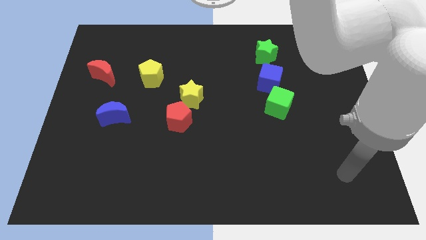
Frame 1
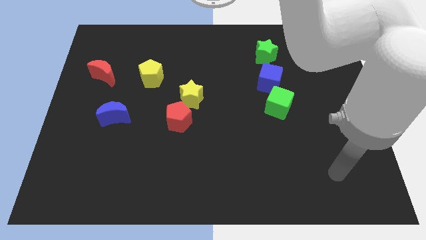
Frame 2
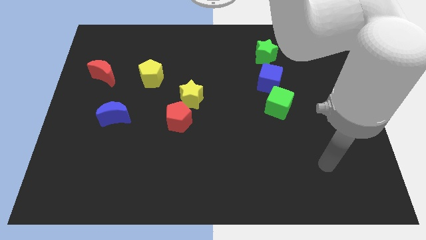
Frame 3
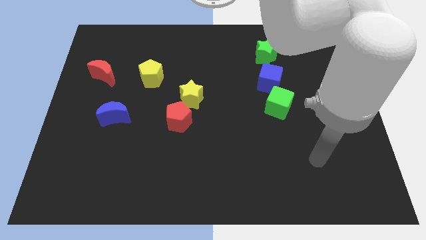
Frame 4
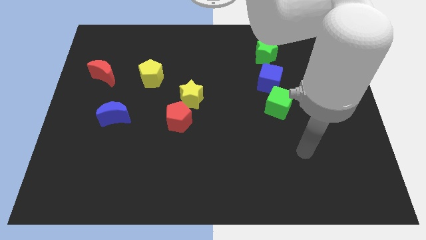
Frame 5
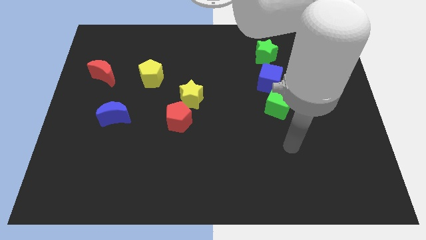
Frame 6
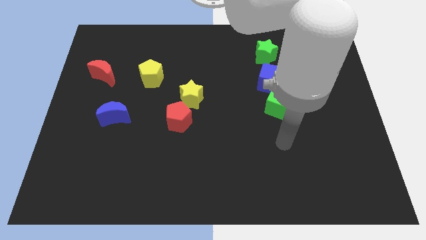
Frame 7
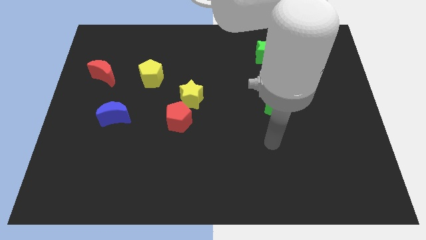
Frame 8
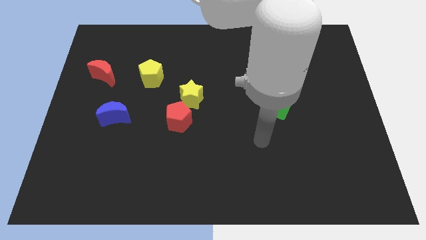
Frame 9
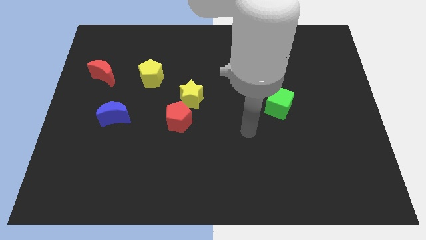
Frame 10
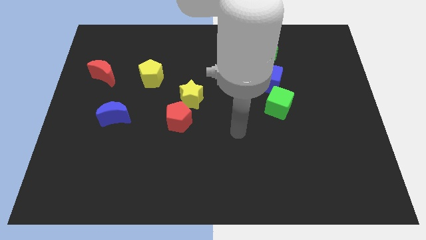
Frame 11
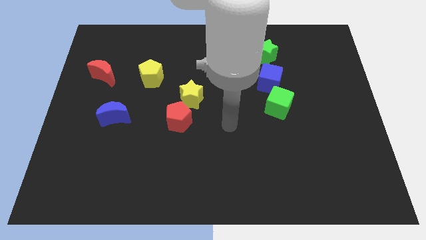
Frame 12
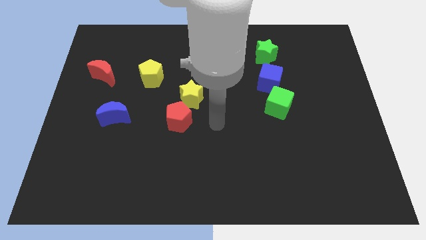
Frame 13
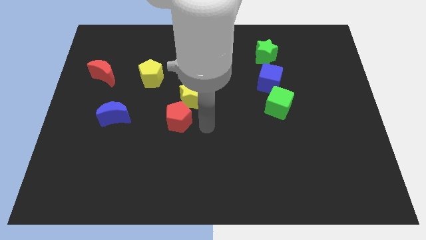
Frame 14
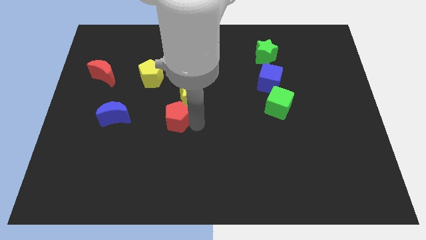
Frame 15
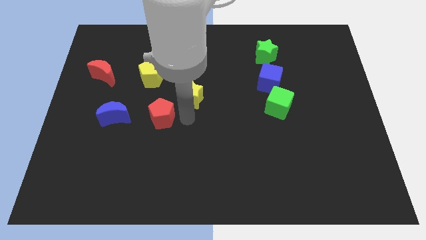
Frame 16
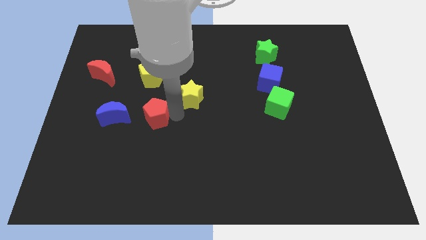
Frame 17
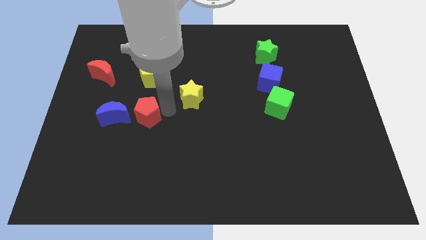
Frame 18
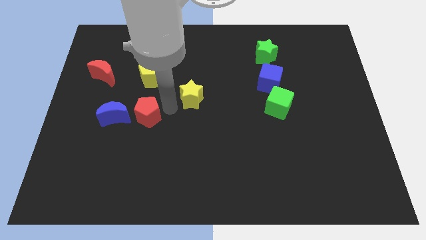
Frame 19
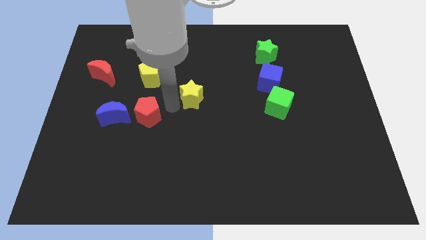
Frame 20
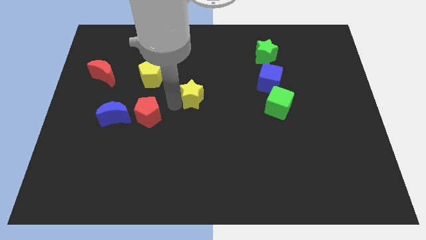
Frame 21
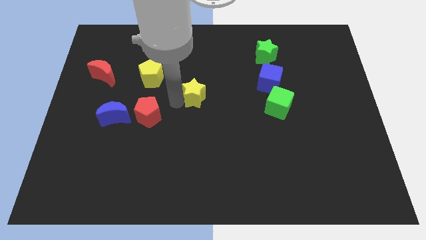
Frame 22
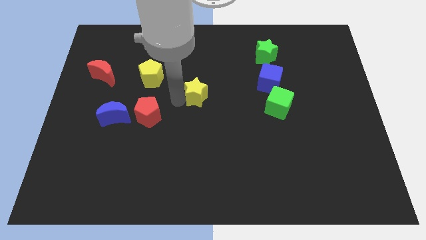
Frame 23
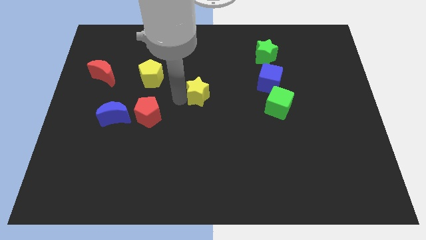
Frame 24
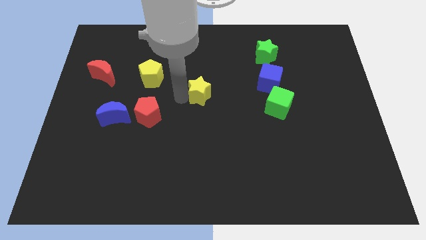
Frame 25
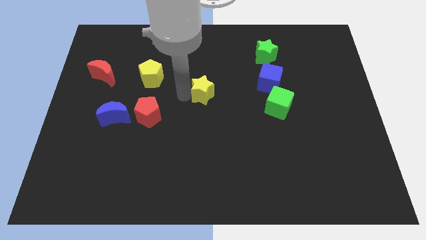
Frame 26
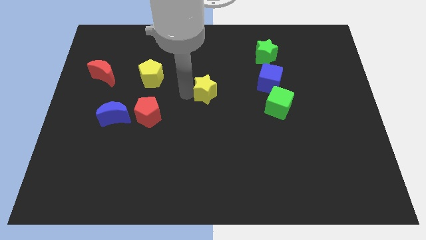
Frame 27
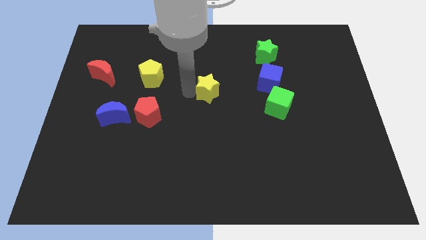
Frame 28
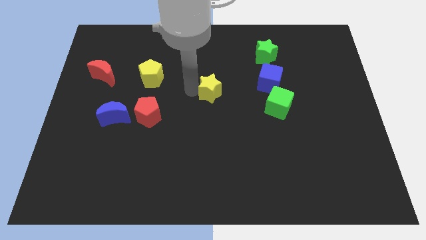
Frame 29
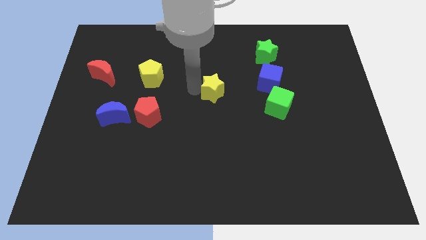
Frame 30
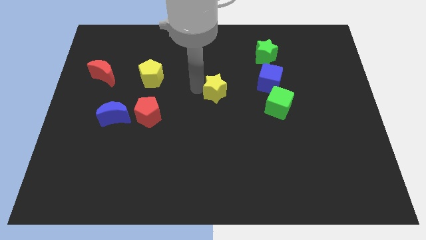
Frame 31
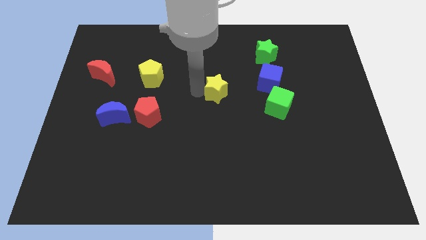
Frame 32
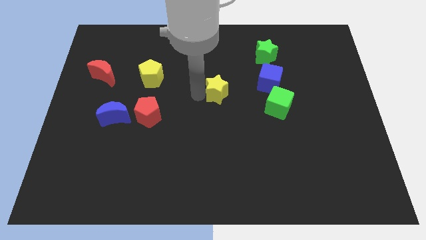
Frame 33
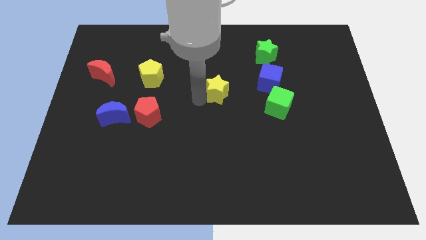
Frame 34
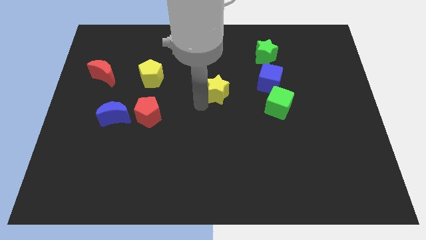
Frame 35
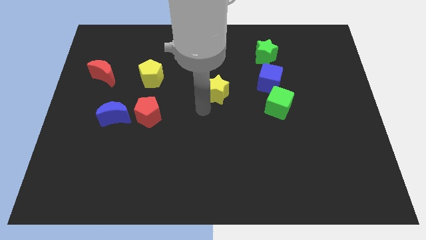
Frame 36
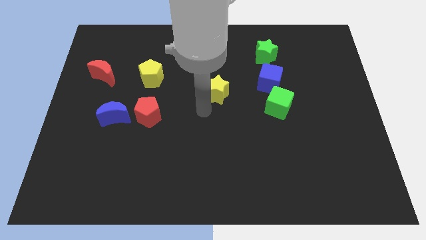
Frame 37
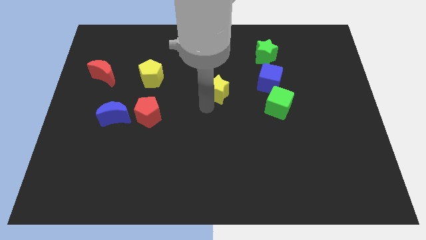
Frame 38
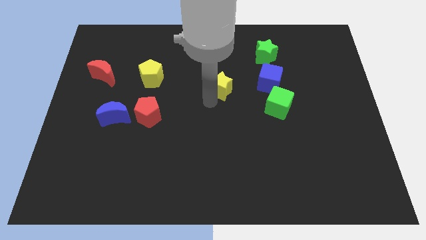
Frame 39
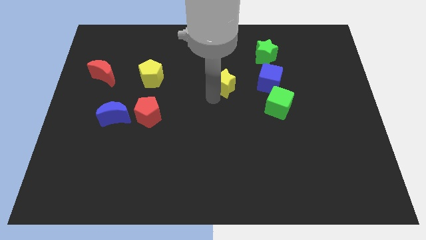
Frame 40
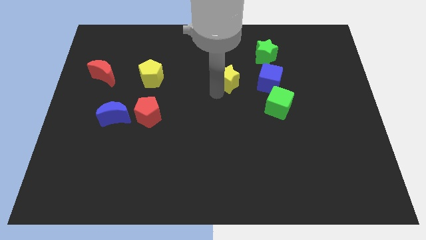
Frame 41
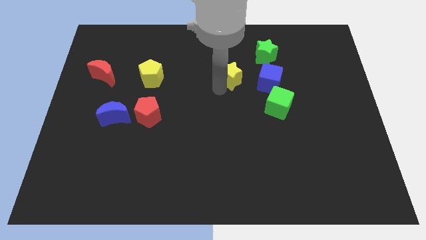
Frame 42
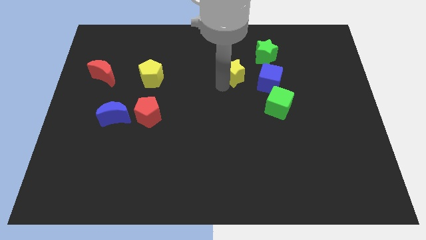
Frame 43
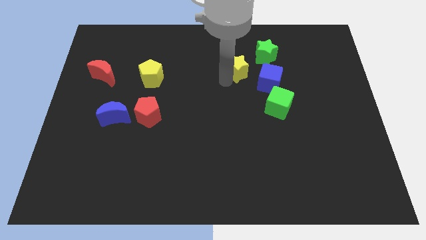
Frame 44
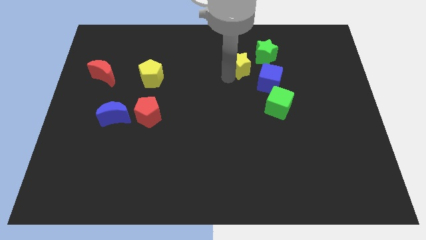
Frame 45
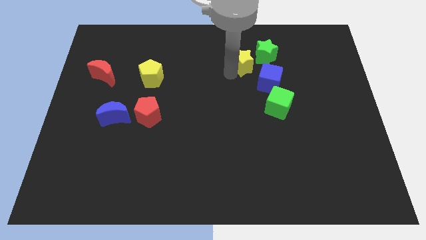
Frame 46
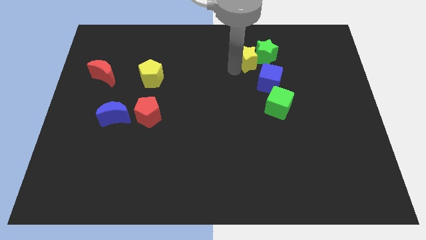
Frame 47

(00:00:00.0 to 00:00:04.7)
move the yellow star to the green star

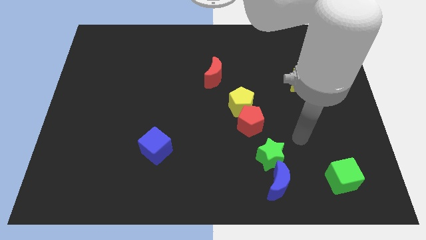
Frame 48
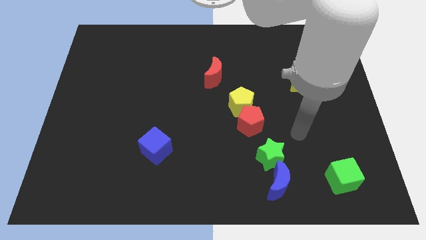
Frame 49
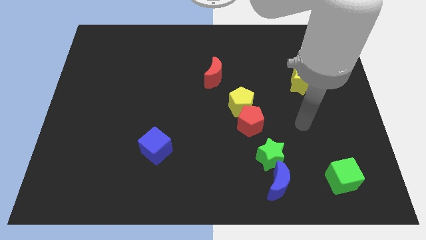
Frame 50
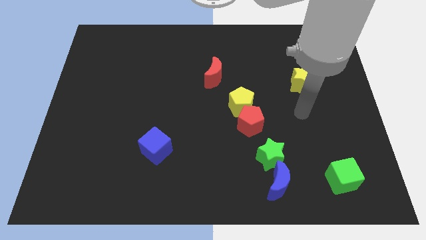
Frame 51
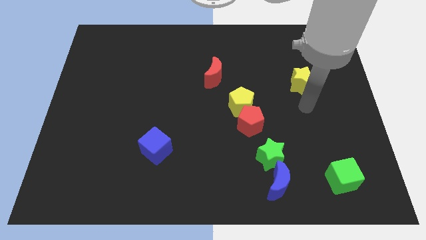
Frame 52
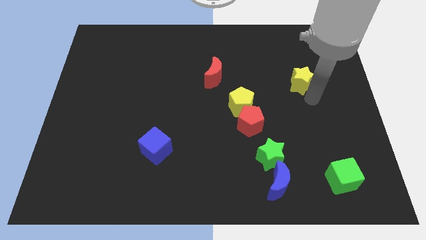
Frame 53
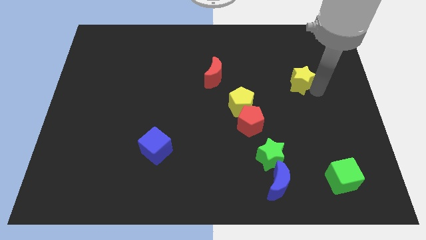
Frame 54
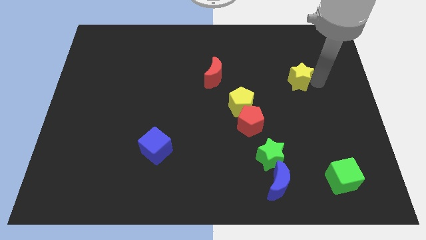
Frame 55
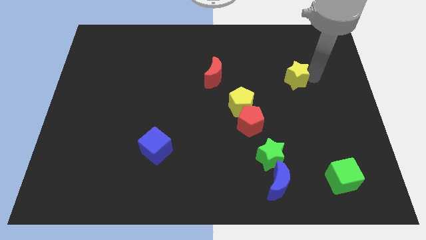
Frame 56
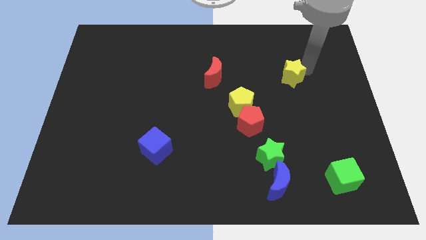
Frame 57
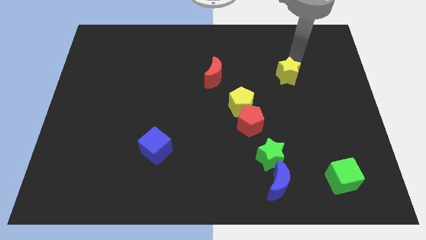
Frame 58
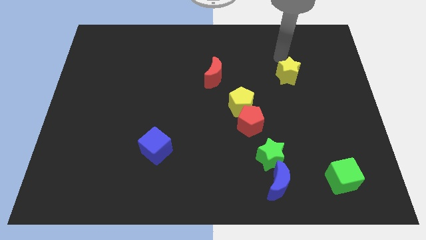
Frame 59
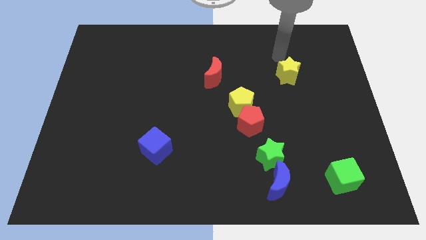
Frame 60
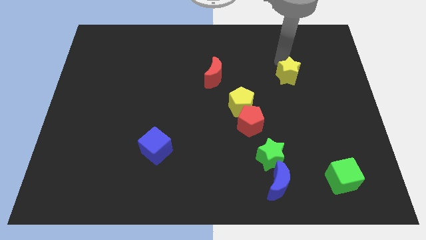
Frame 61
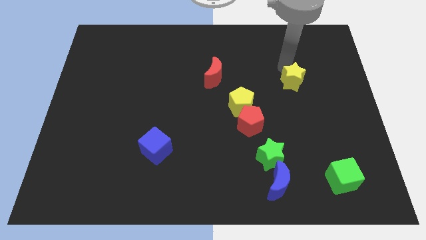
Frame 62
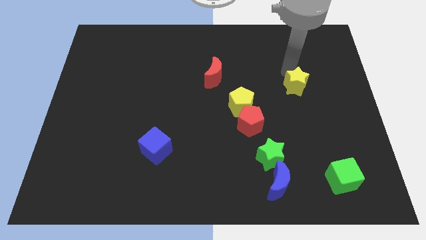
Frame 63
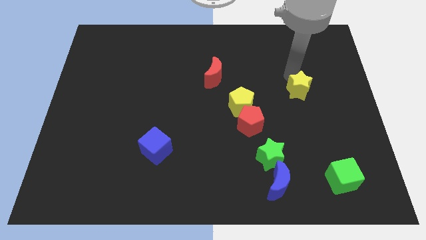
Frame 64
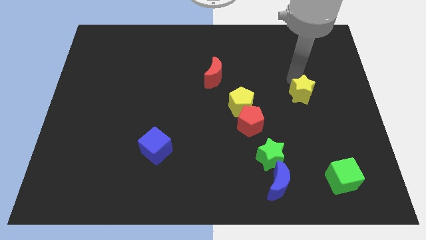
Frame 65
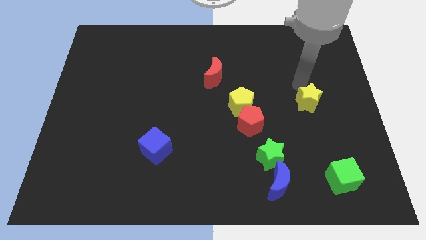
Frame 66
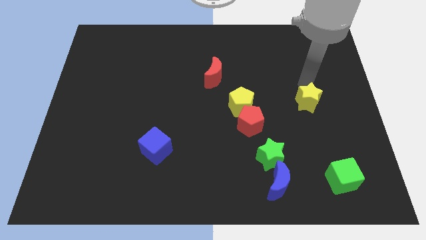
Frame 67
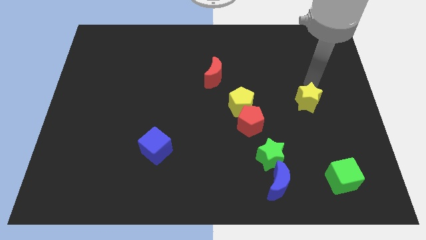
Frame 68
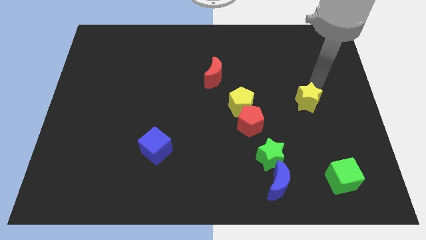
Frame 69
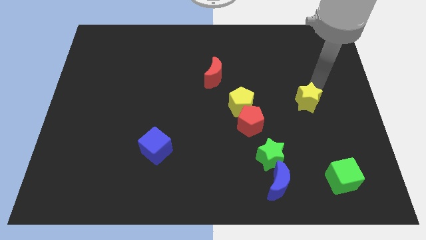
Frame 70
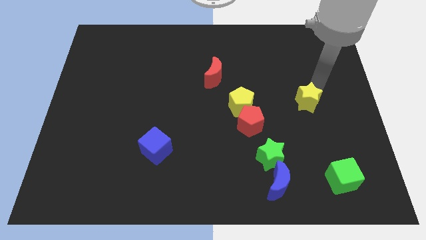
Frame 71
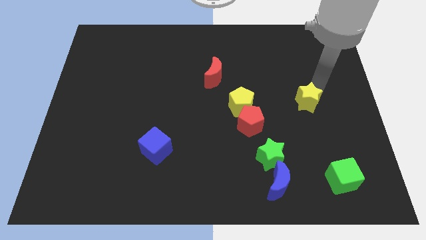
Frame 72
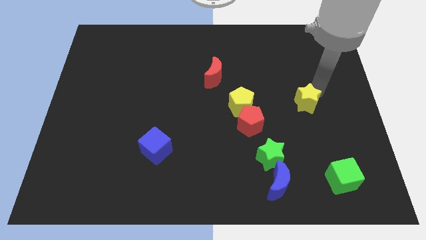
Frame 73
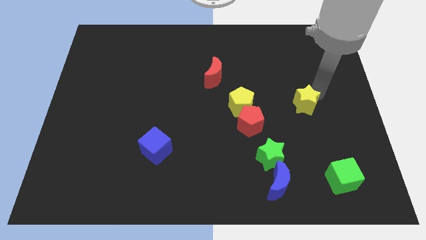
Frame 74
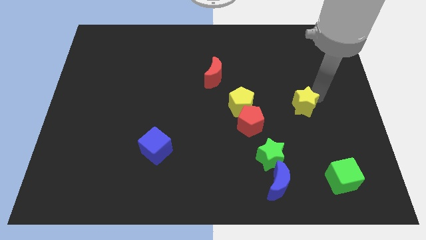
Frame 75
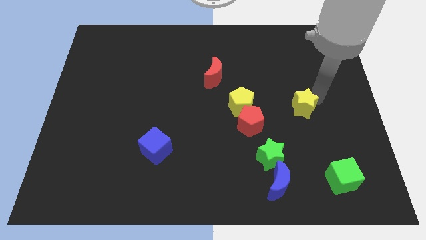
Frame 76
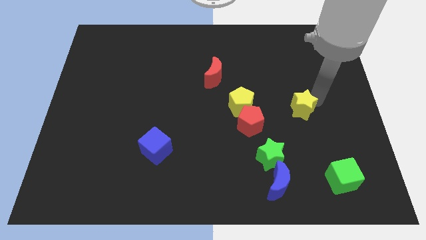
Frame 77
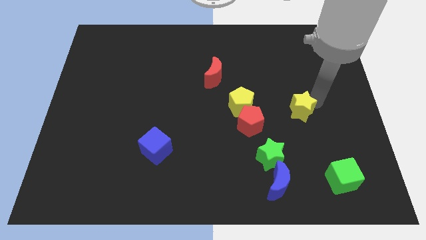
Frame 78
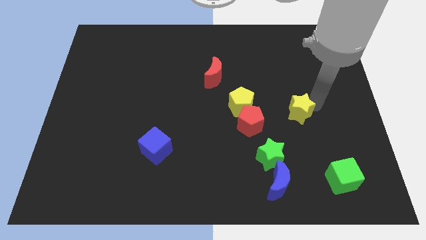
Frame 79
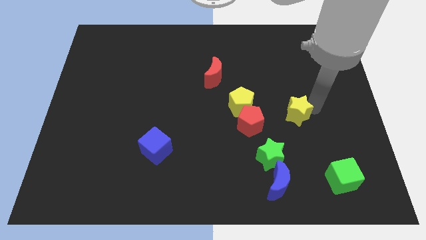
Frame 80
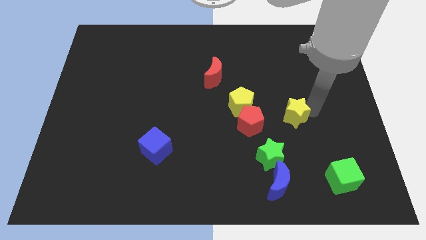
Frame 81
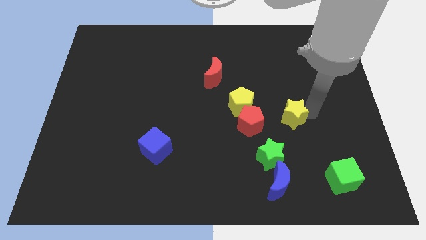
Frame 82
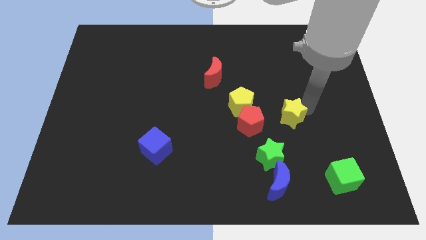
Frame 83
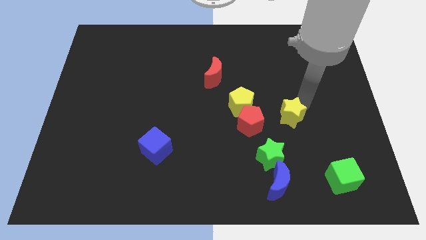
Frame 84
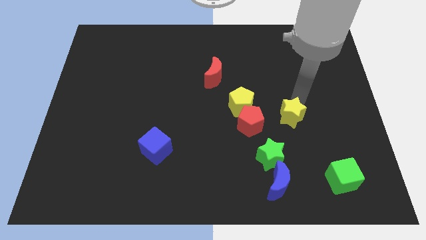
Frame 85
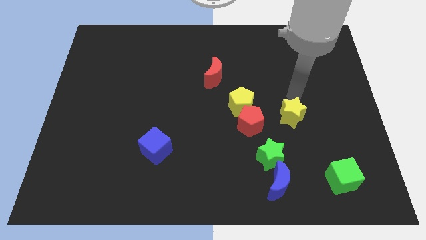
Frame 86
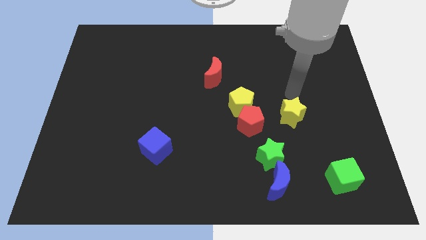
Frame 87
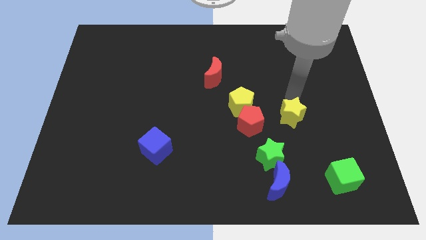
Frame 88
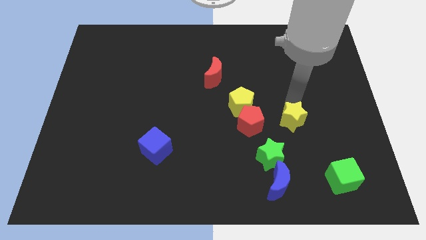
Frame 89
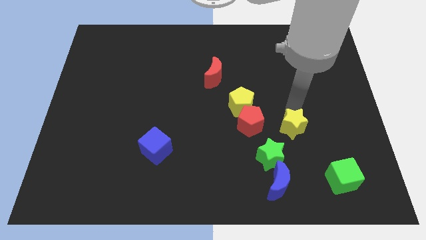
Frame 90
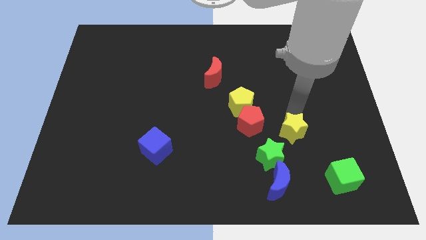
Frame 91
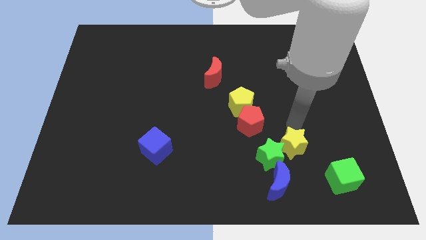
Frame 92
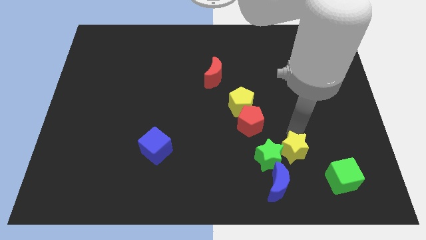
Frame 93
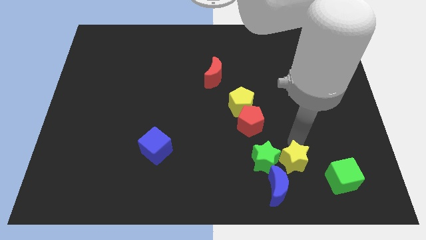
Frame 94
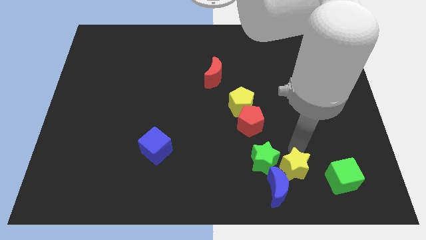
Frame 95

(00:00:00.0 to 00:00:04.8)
push the yellow star next to the blue moon
